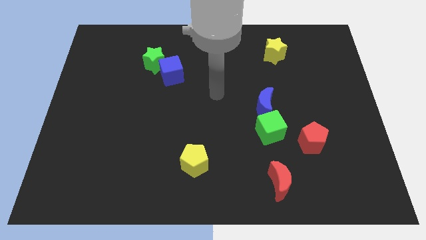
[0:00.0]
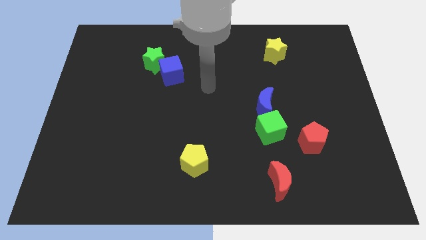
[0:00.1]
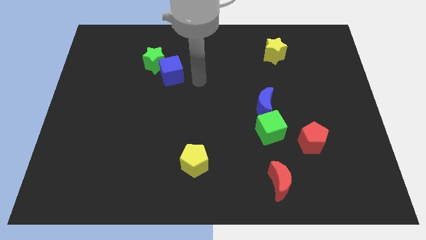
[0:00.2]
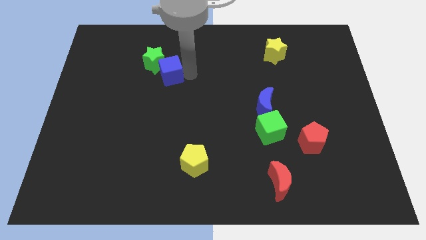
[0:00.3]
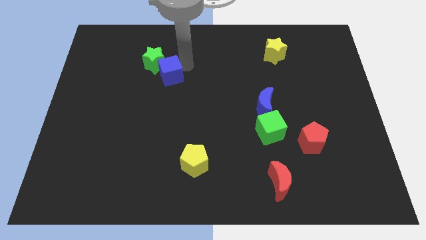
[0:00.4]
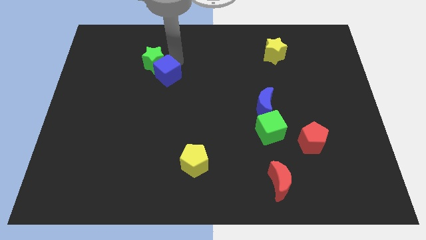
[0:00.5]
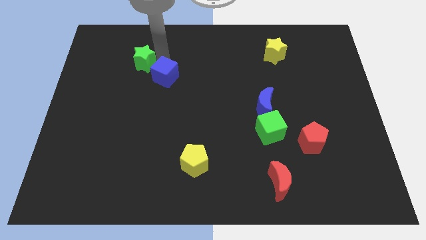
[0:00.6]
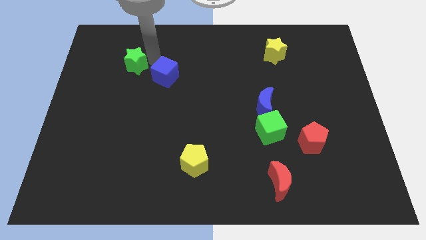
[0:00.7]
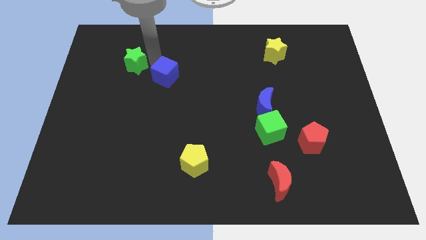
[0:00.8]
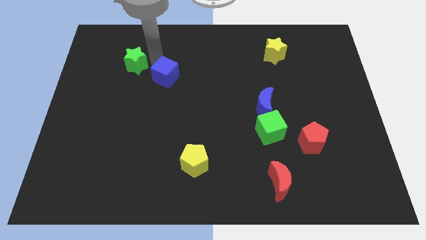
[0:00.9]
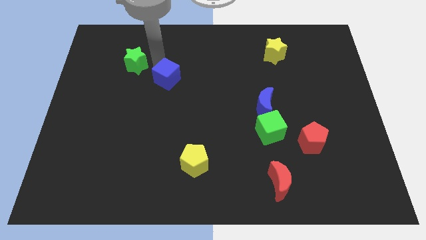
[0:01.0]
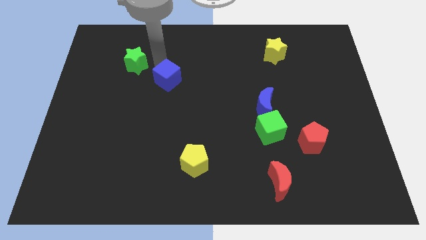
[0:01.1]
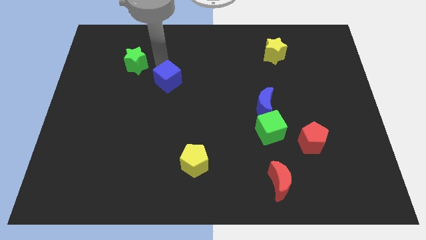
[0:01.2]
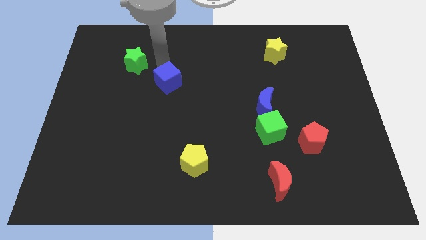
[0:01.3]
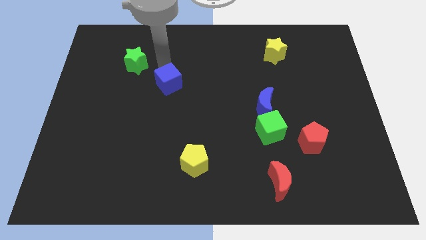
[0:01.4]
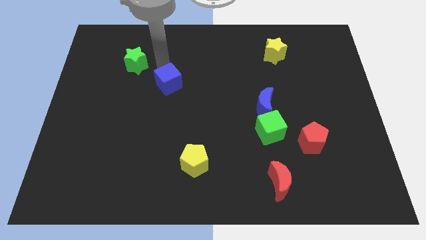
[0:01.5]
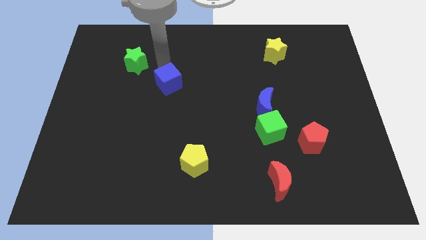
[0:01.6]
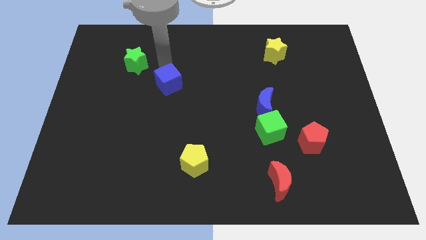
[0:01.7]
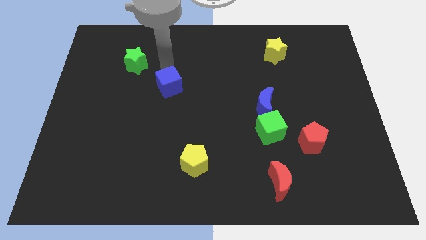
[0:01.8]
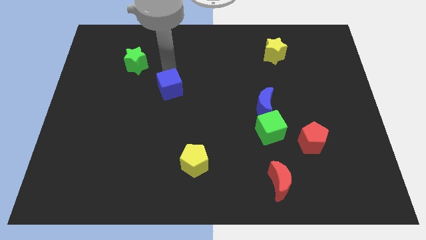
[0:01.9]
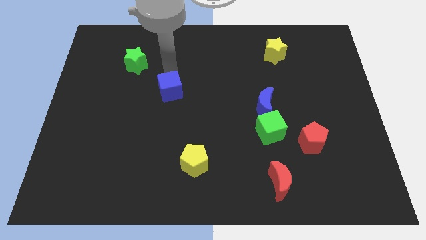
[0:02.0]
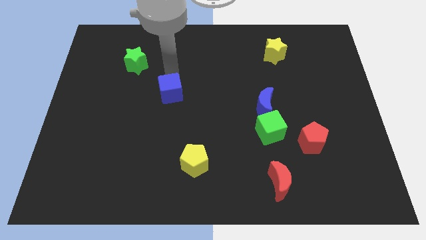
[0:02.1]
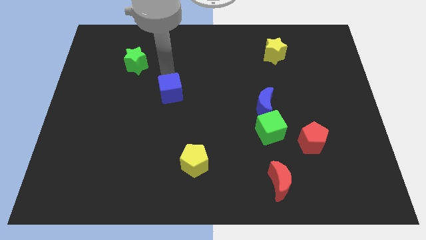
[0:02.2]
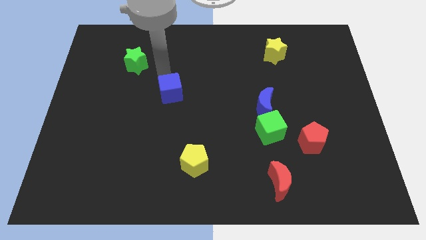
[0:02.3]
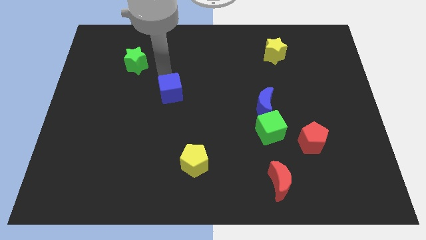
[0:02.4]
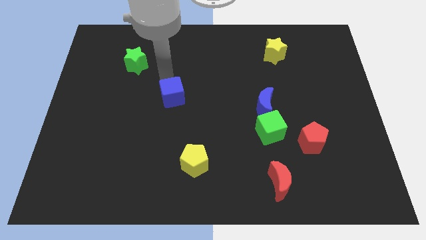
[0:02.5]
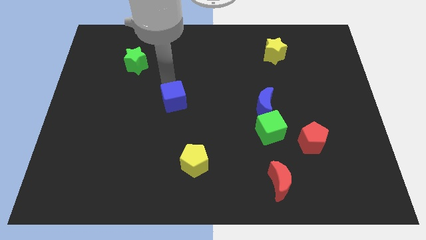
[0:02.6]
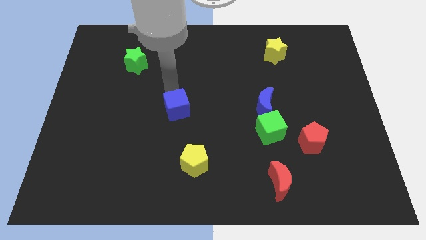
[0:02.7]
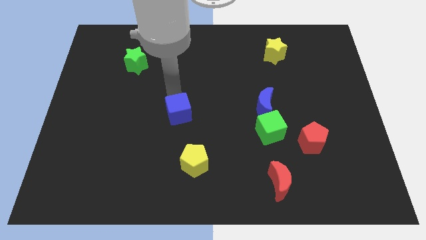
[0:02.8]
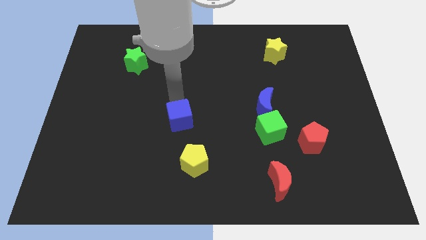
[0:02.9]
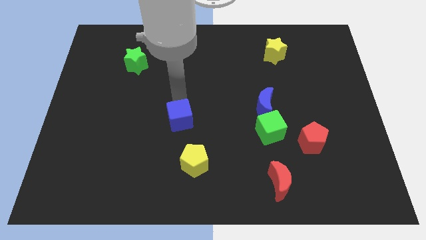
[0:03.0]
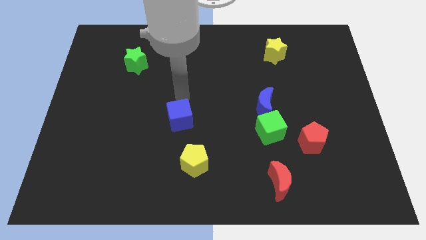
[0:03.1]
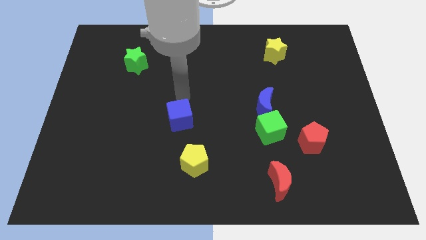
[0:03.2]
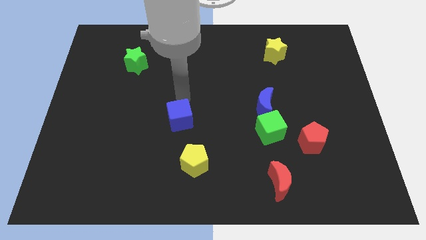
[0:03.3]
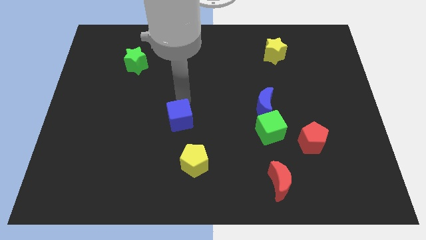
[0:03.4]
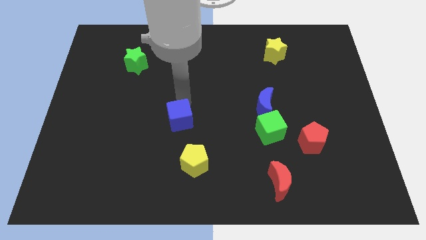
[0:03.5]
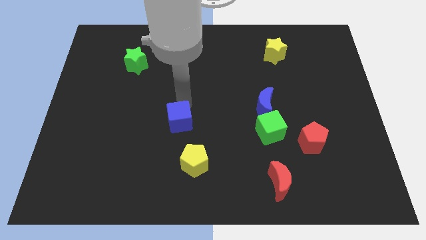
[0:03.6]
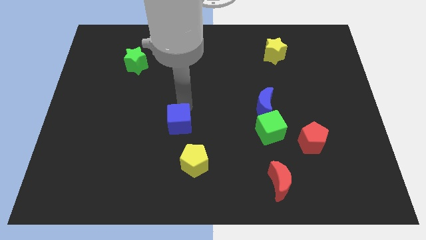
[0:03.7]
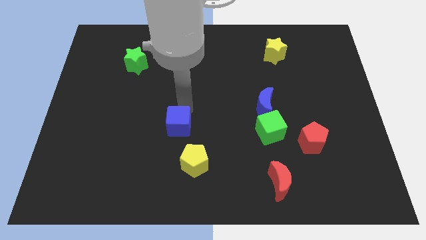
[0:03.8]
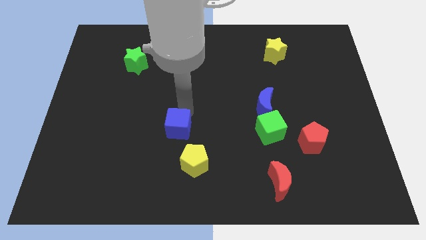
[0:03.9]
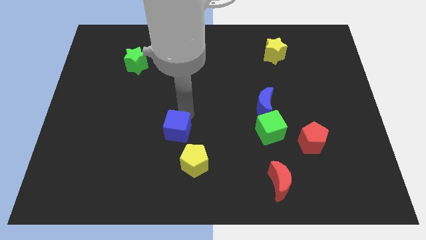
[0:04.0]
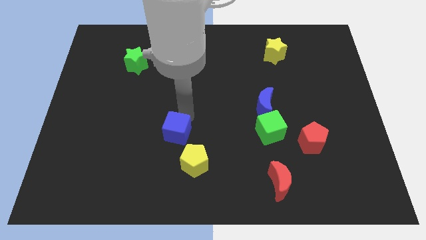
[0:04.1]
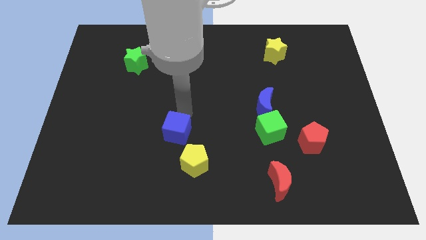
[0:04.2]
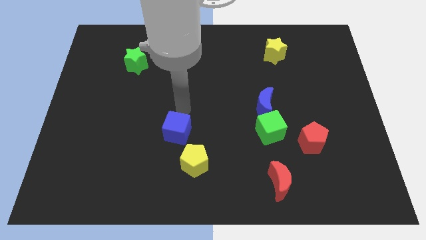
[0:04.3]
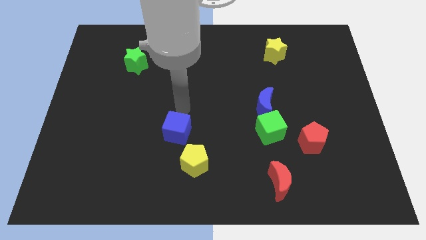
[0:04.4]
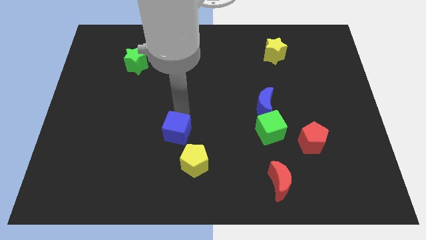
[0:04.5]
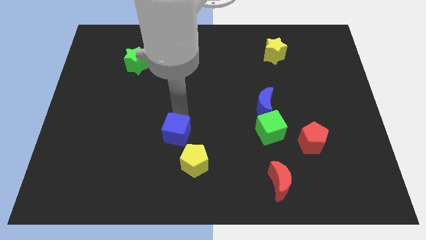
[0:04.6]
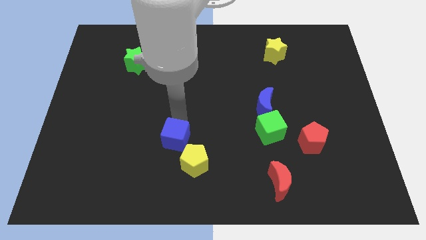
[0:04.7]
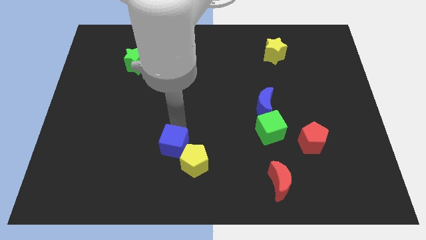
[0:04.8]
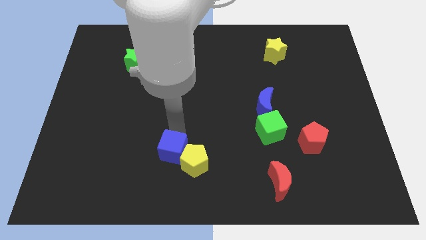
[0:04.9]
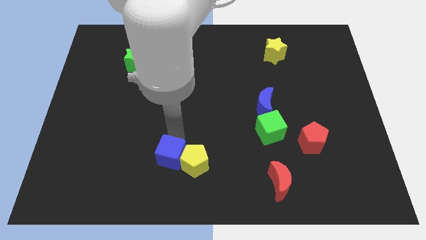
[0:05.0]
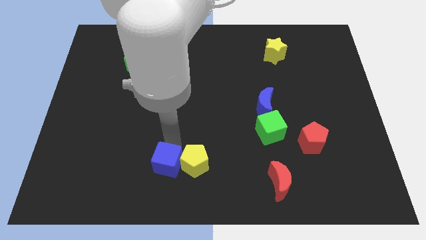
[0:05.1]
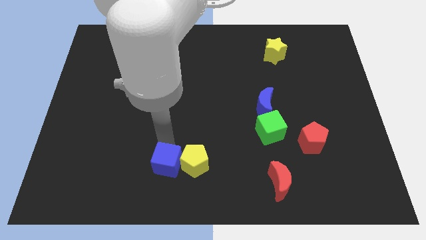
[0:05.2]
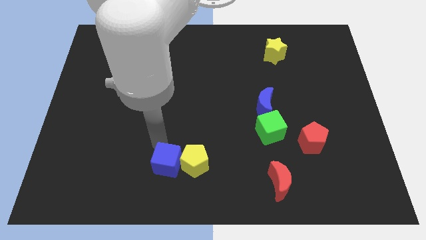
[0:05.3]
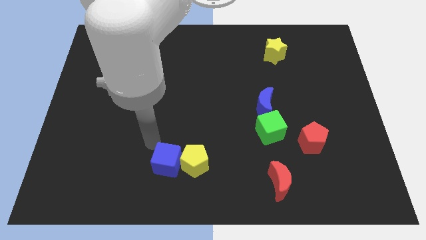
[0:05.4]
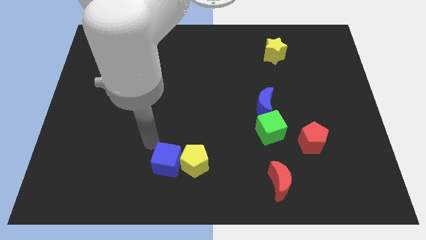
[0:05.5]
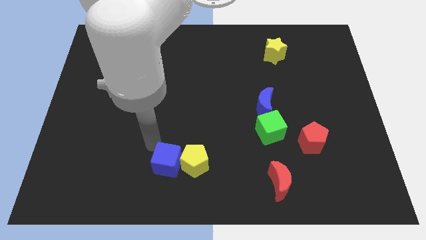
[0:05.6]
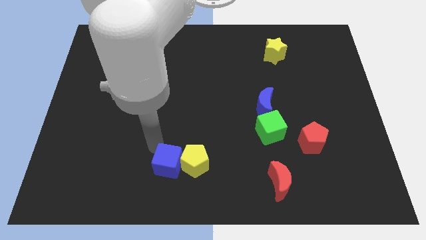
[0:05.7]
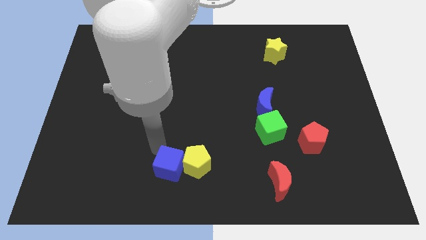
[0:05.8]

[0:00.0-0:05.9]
slide the blue cube to the bottom
